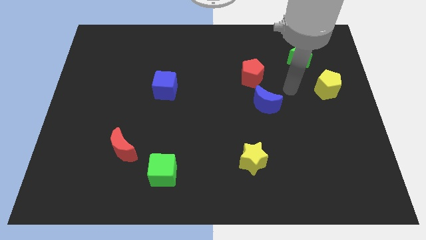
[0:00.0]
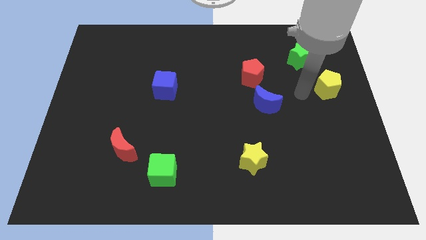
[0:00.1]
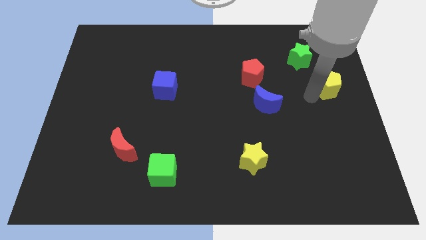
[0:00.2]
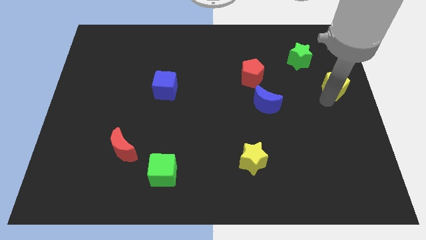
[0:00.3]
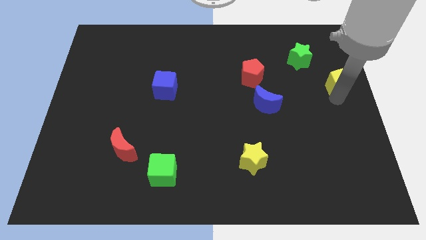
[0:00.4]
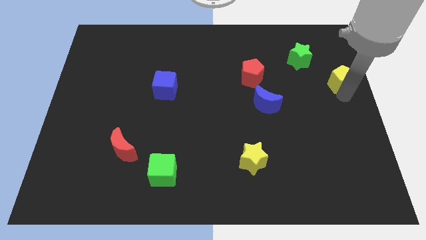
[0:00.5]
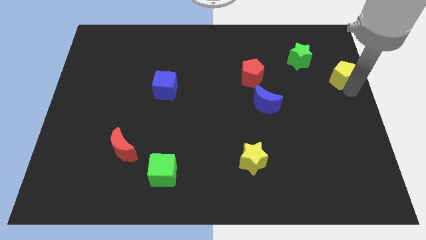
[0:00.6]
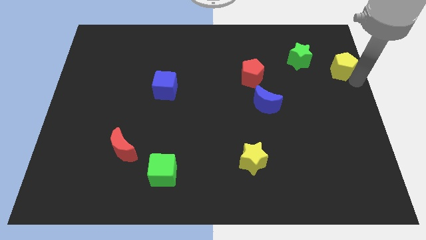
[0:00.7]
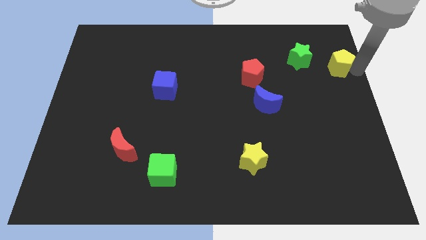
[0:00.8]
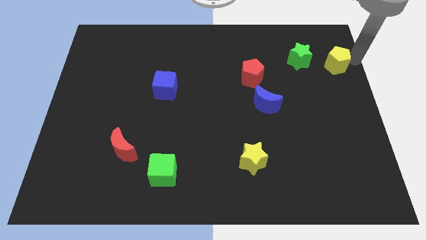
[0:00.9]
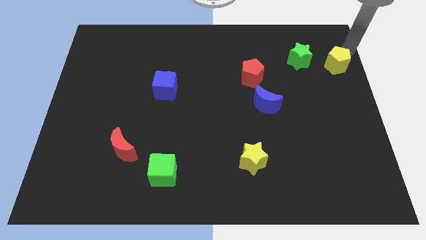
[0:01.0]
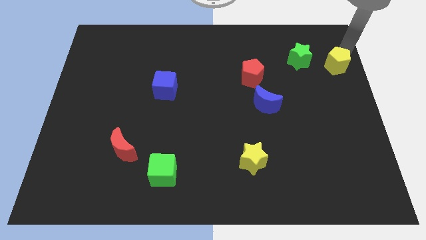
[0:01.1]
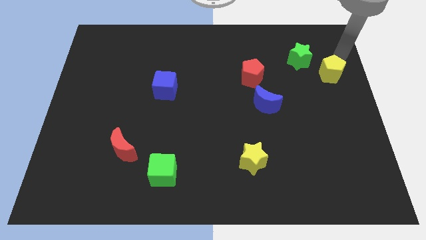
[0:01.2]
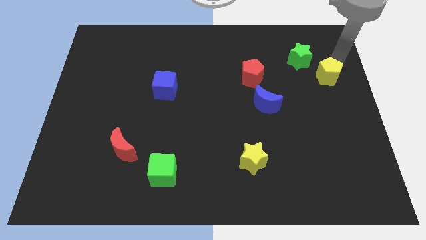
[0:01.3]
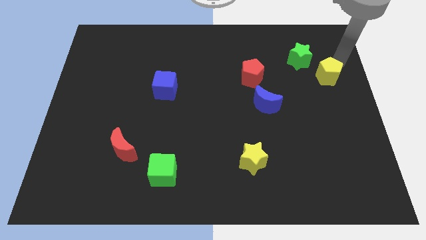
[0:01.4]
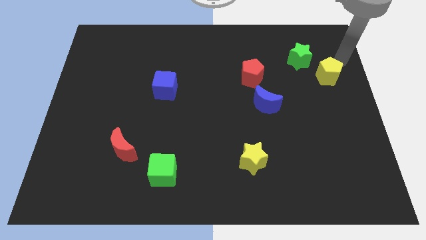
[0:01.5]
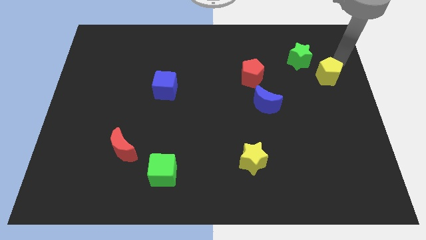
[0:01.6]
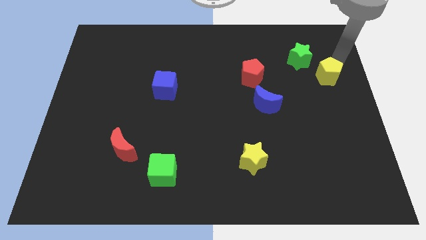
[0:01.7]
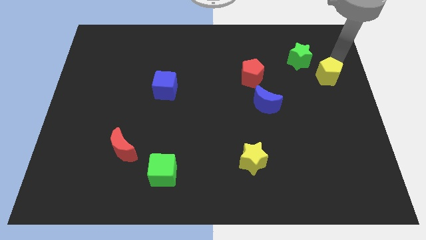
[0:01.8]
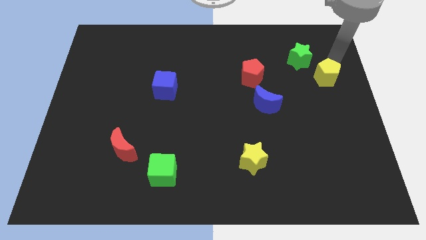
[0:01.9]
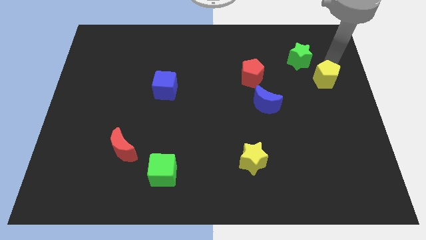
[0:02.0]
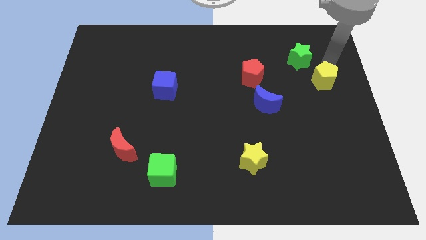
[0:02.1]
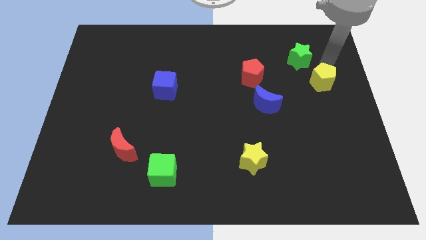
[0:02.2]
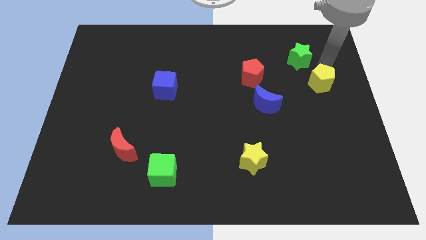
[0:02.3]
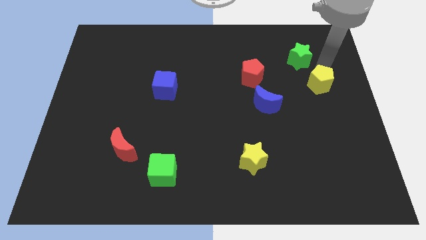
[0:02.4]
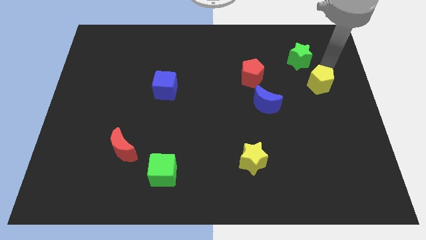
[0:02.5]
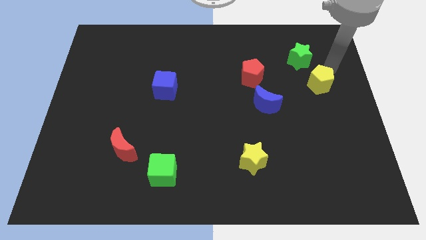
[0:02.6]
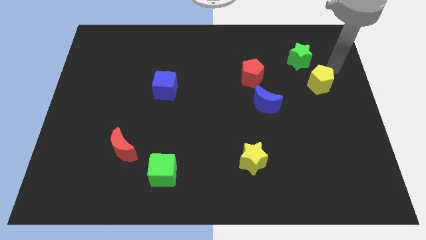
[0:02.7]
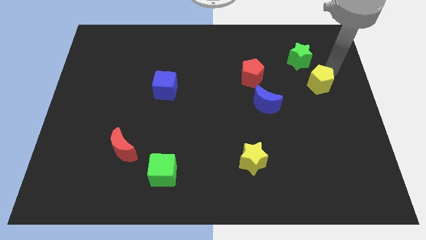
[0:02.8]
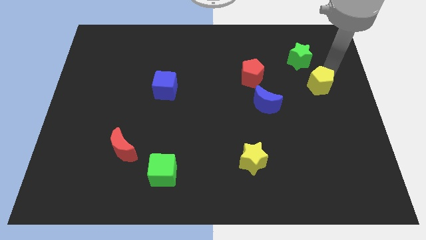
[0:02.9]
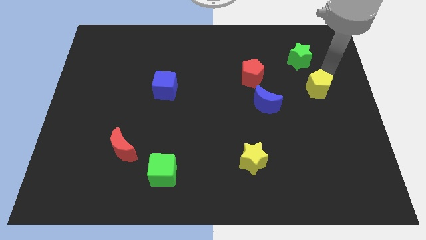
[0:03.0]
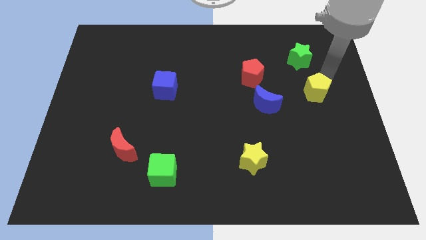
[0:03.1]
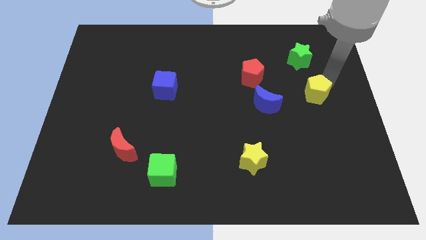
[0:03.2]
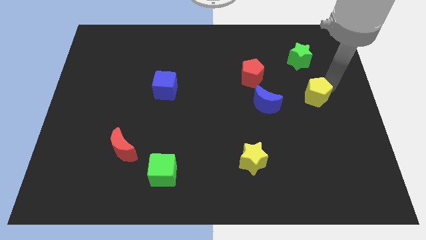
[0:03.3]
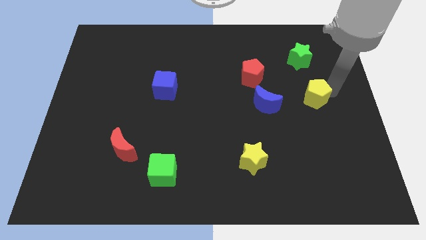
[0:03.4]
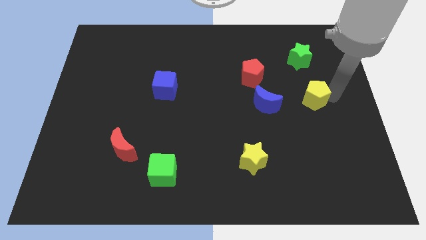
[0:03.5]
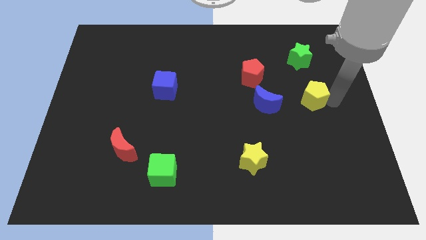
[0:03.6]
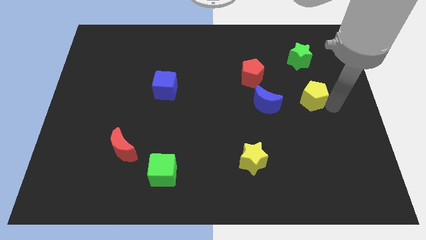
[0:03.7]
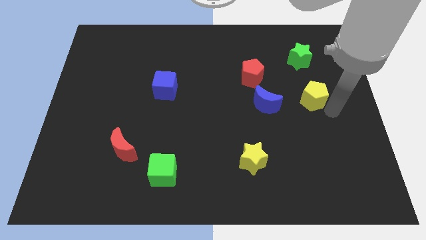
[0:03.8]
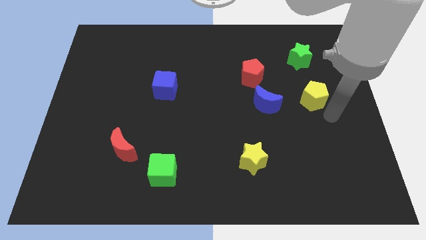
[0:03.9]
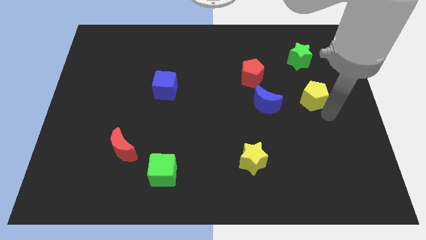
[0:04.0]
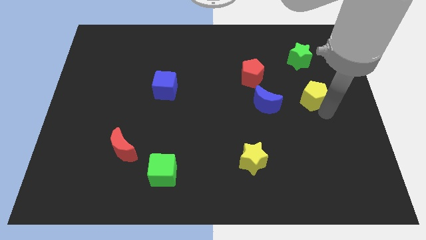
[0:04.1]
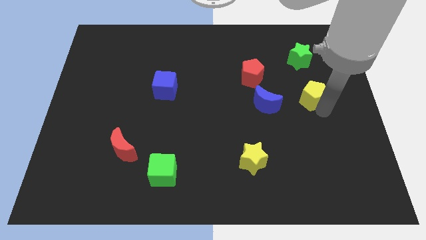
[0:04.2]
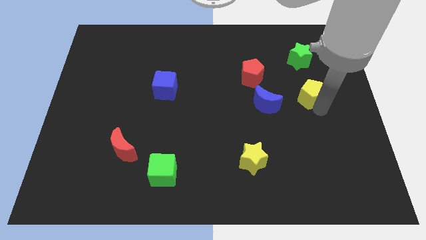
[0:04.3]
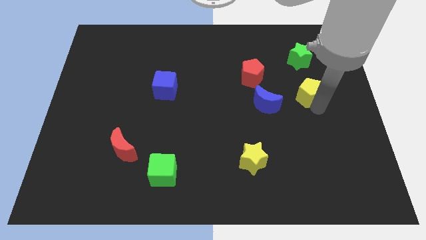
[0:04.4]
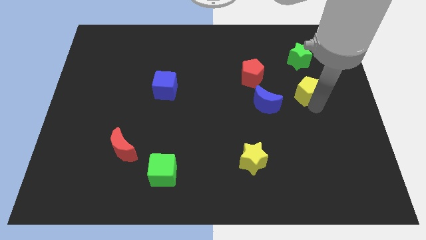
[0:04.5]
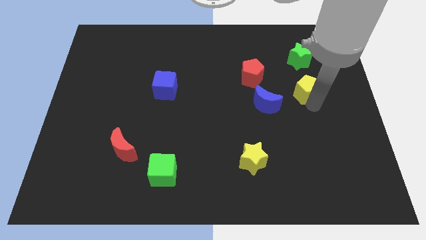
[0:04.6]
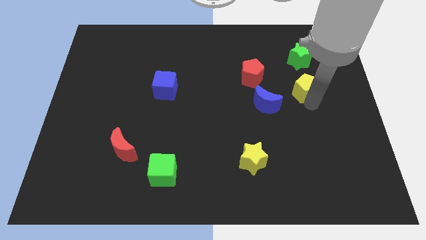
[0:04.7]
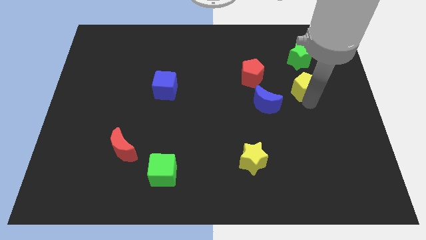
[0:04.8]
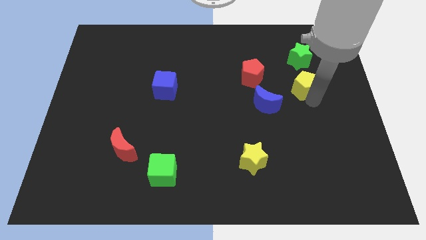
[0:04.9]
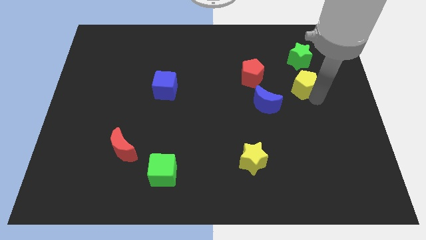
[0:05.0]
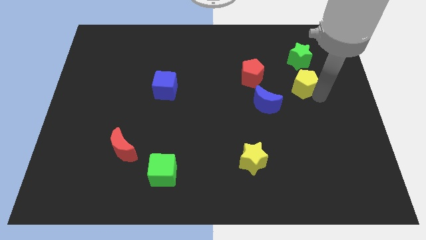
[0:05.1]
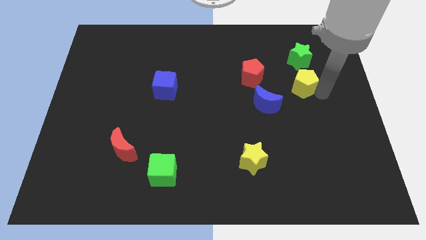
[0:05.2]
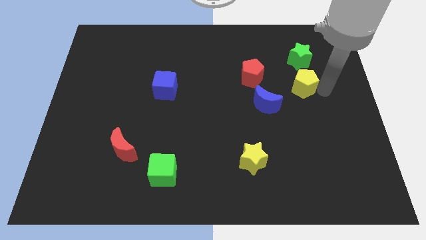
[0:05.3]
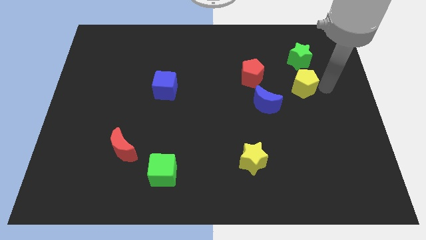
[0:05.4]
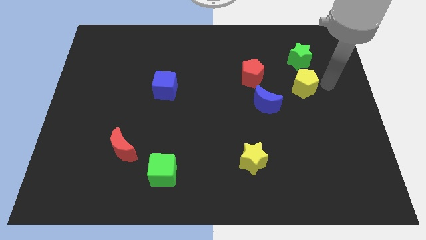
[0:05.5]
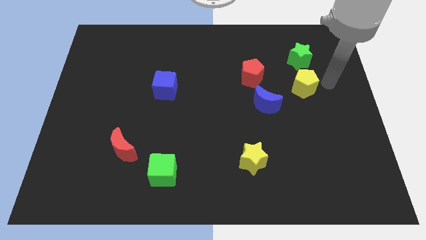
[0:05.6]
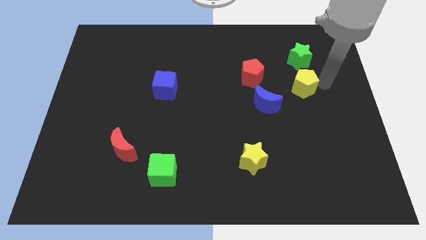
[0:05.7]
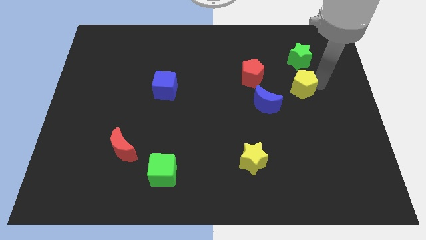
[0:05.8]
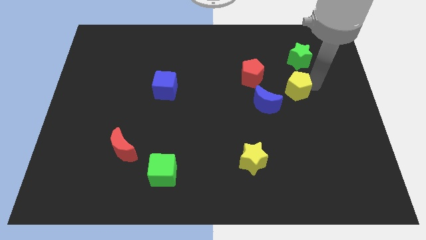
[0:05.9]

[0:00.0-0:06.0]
slightly slide the yellow pentagon to the left

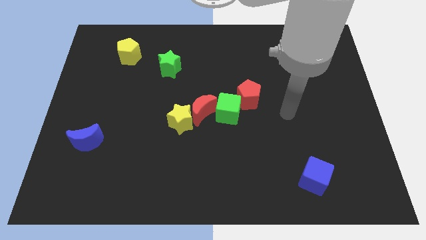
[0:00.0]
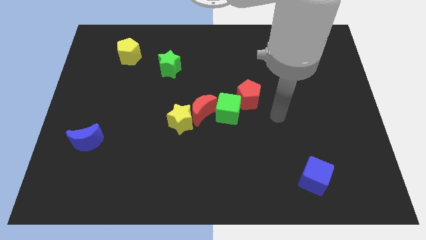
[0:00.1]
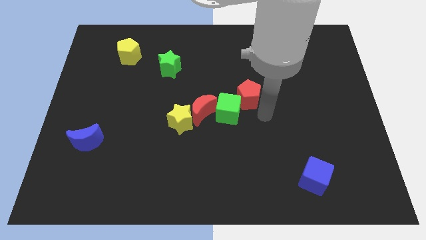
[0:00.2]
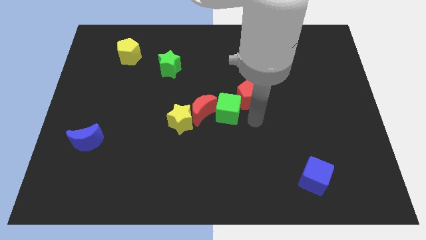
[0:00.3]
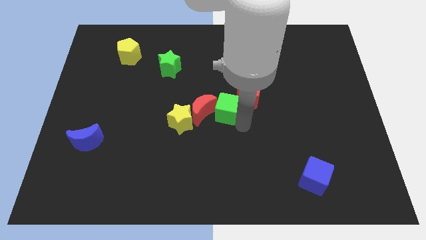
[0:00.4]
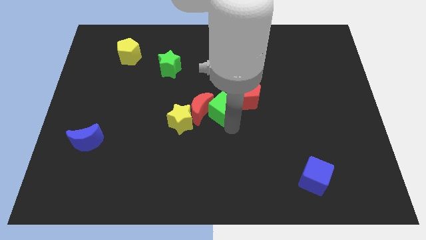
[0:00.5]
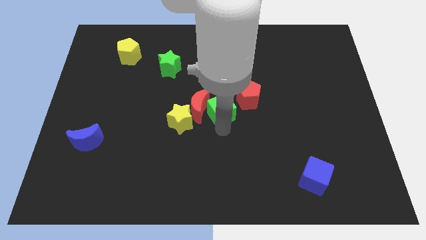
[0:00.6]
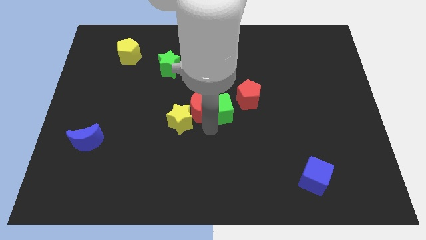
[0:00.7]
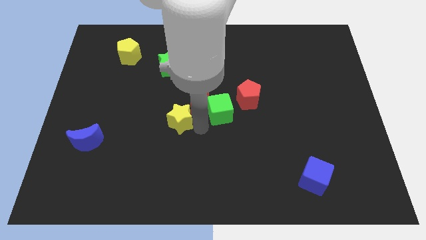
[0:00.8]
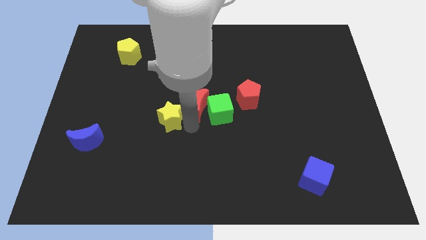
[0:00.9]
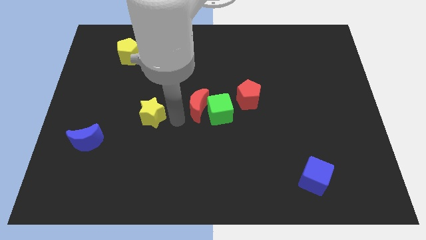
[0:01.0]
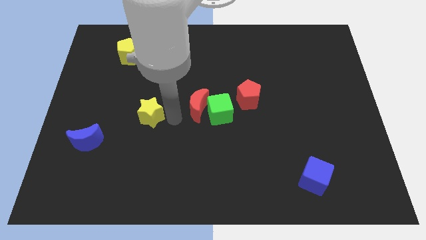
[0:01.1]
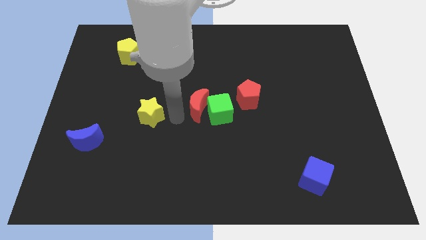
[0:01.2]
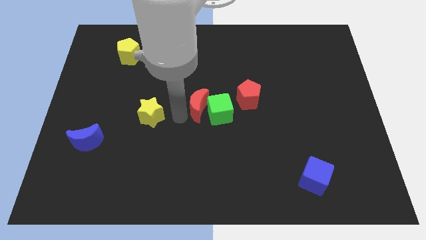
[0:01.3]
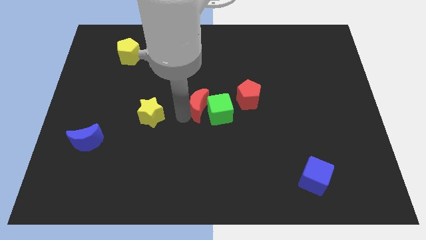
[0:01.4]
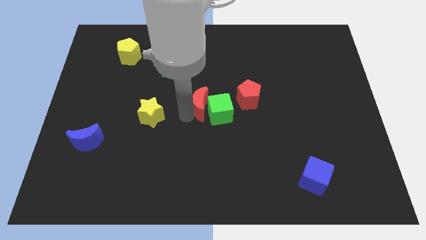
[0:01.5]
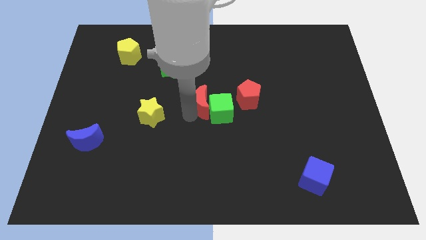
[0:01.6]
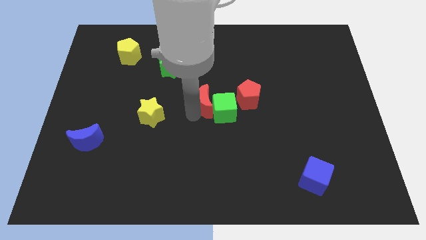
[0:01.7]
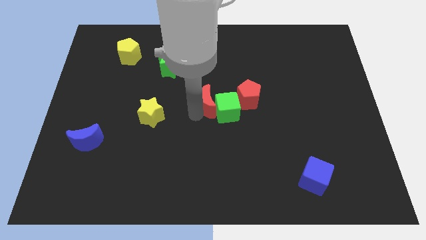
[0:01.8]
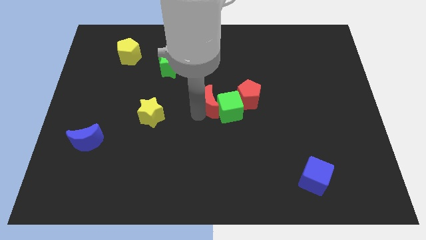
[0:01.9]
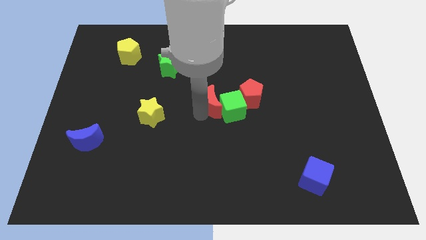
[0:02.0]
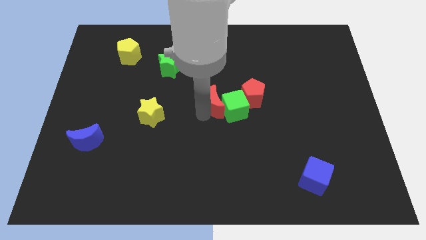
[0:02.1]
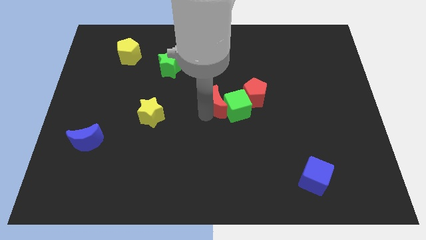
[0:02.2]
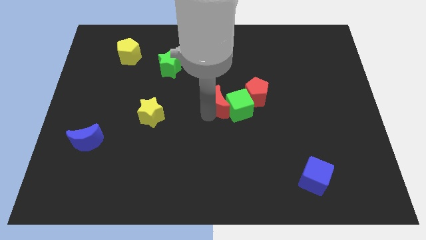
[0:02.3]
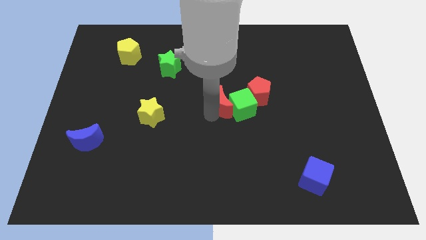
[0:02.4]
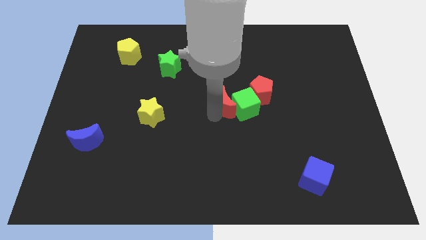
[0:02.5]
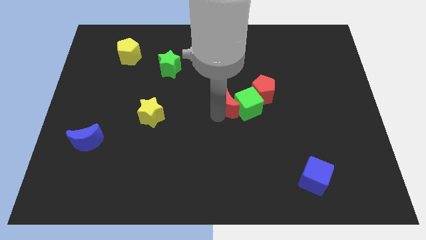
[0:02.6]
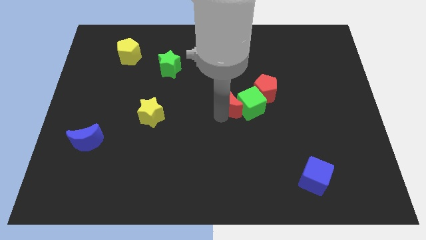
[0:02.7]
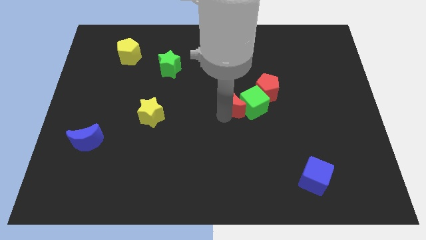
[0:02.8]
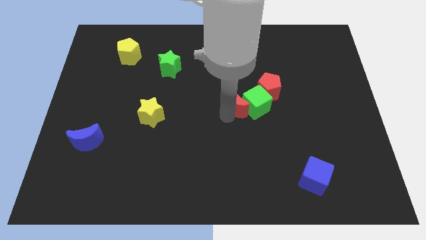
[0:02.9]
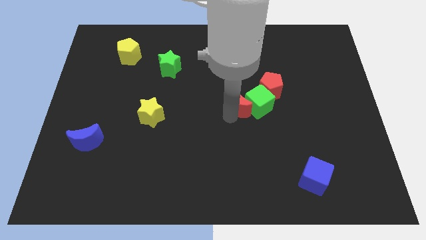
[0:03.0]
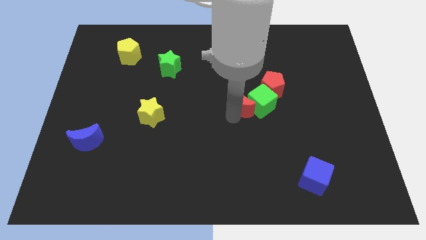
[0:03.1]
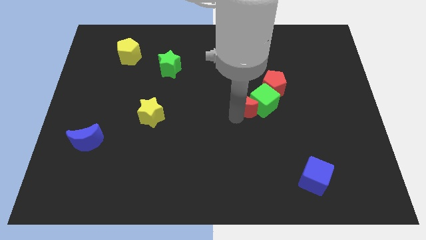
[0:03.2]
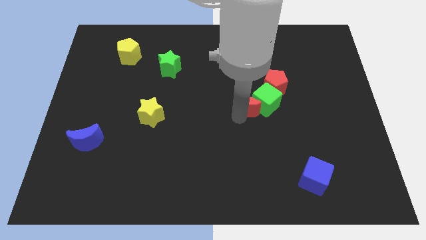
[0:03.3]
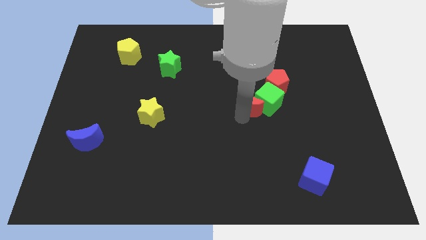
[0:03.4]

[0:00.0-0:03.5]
move the red moon a little up and right diagonally
